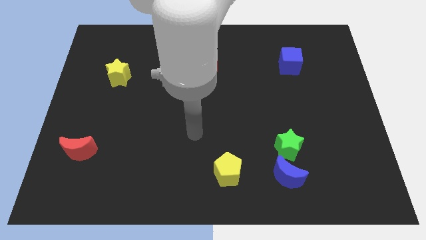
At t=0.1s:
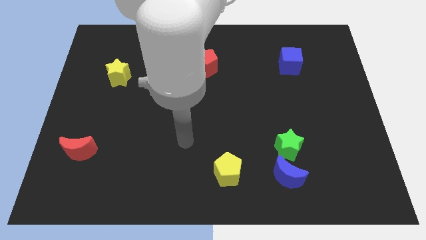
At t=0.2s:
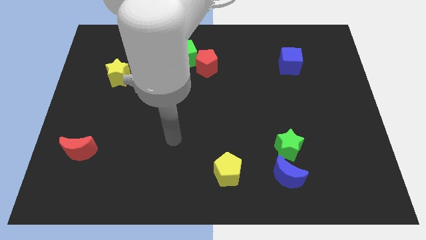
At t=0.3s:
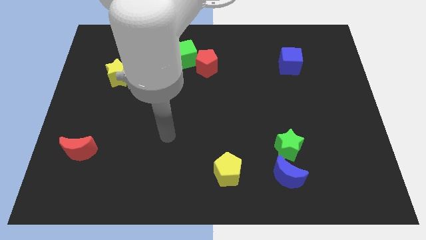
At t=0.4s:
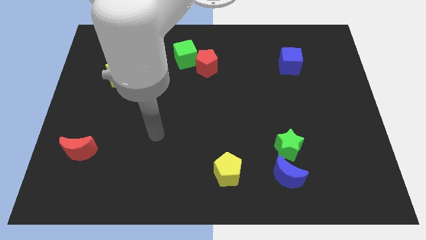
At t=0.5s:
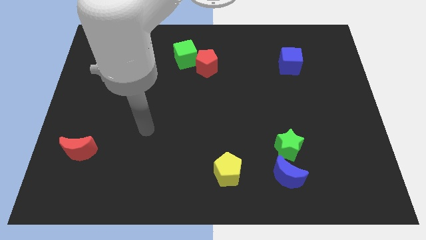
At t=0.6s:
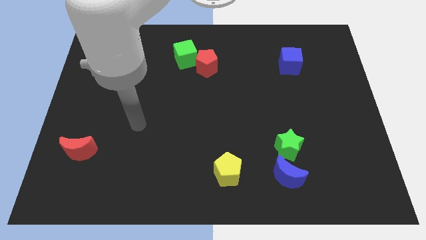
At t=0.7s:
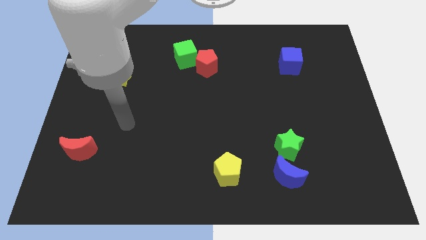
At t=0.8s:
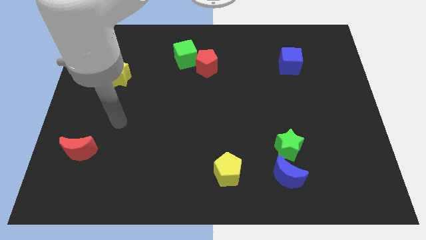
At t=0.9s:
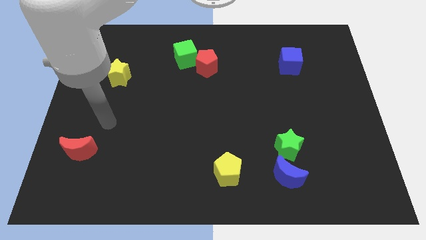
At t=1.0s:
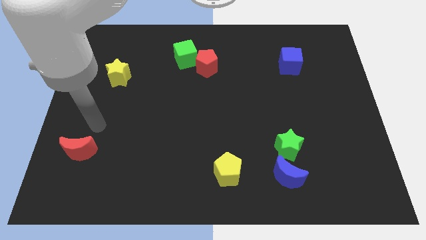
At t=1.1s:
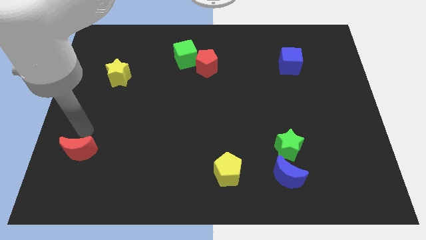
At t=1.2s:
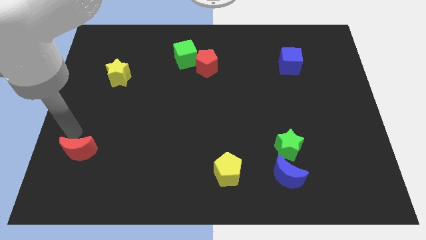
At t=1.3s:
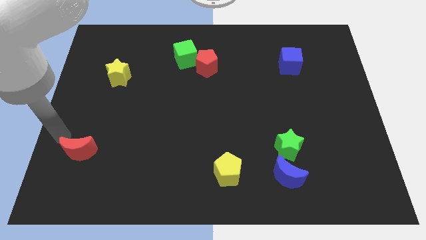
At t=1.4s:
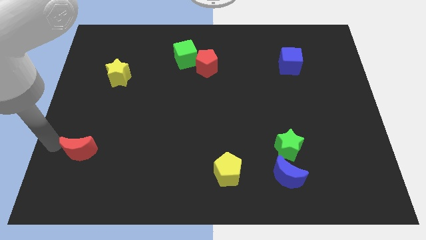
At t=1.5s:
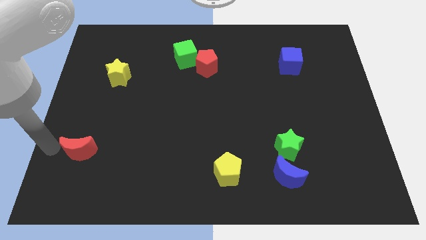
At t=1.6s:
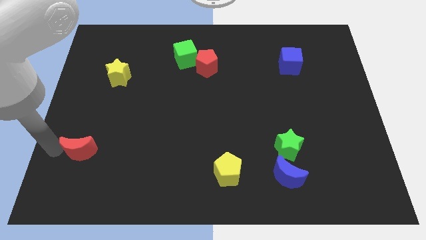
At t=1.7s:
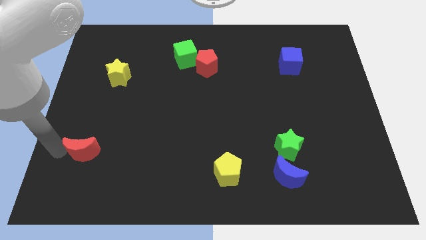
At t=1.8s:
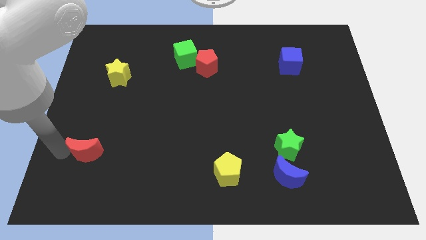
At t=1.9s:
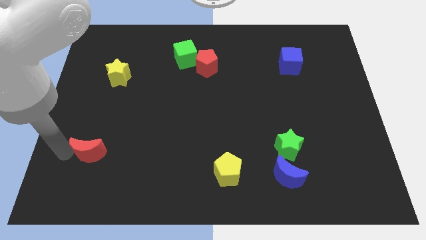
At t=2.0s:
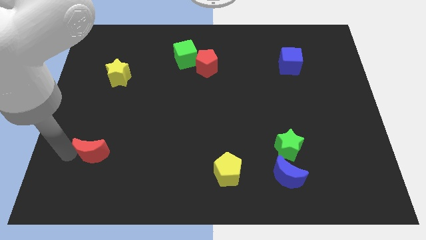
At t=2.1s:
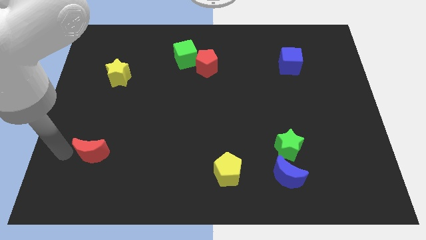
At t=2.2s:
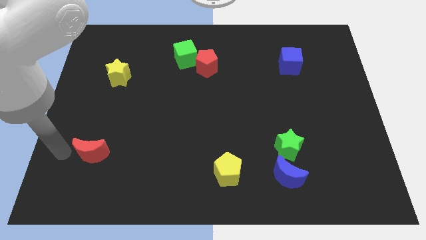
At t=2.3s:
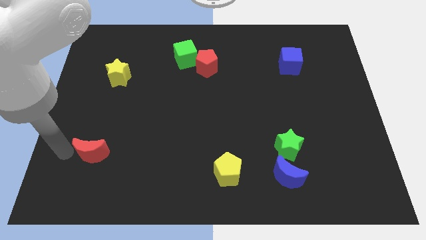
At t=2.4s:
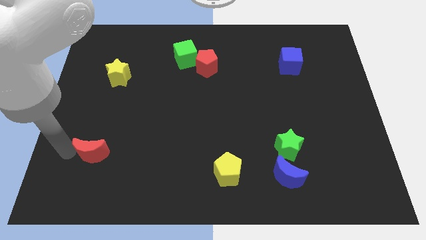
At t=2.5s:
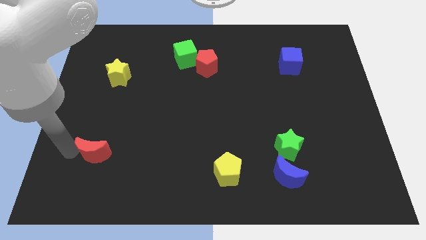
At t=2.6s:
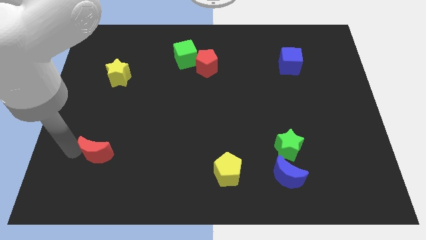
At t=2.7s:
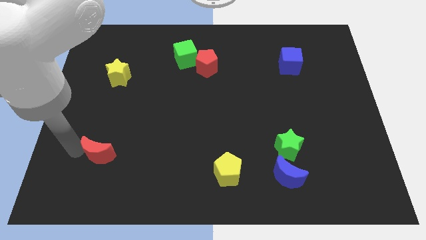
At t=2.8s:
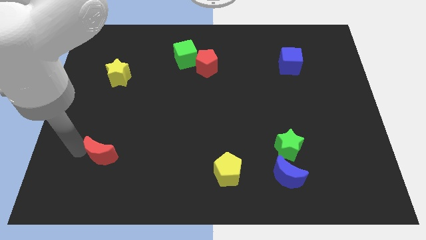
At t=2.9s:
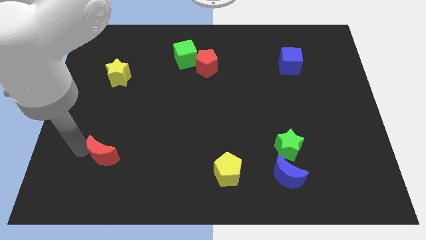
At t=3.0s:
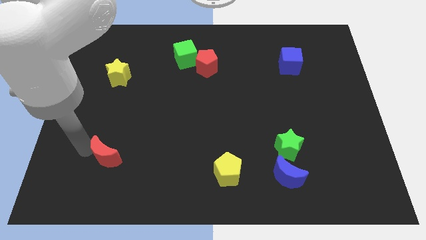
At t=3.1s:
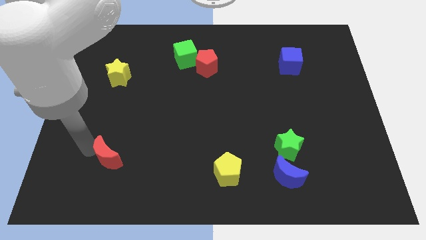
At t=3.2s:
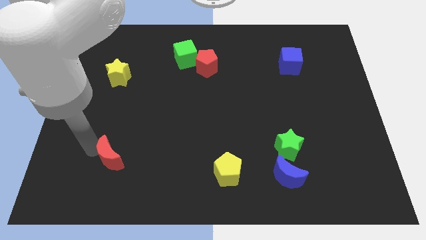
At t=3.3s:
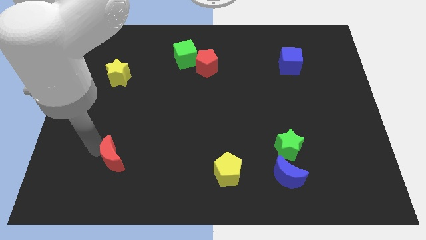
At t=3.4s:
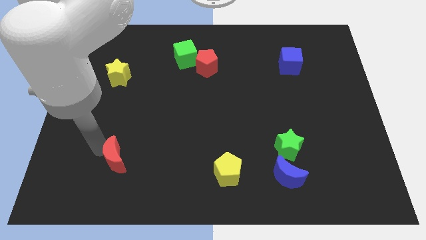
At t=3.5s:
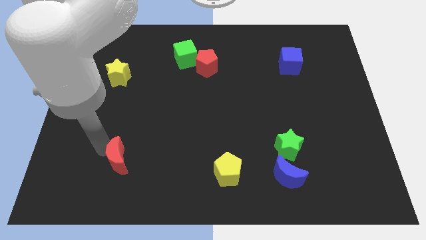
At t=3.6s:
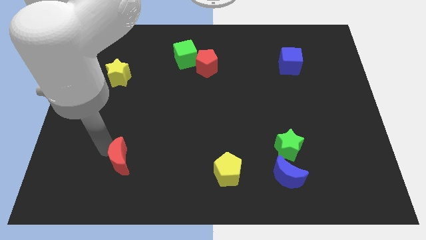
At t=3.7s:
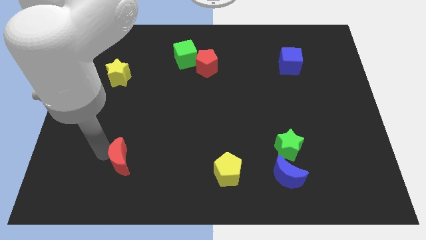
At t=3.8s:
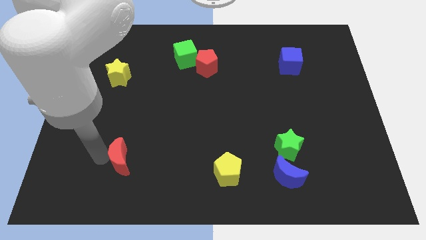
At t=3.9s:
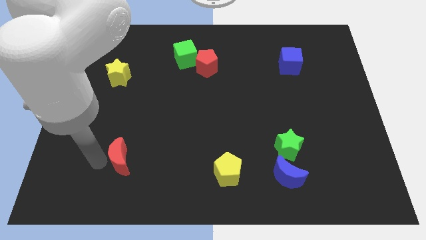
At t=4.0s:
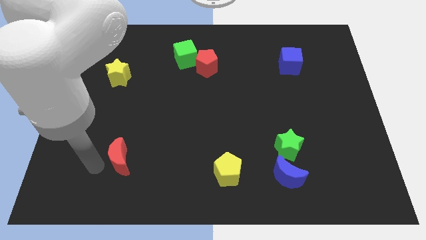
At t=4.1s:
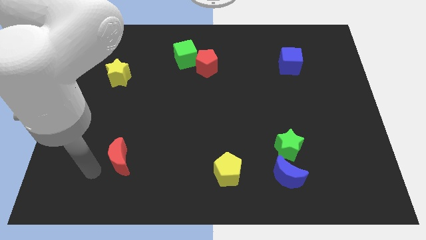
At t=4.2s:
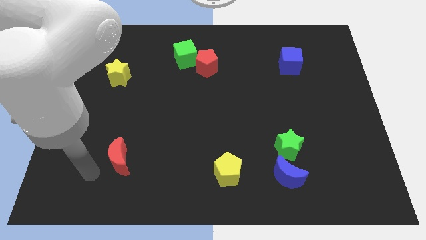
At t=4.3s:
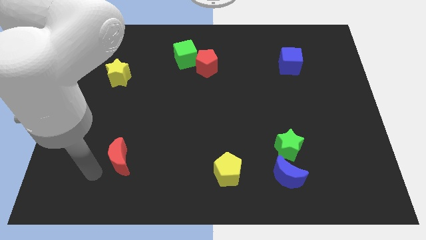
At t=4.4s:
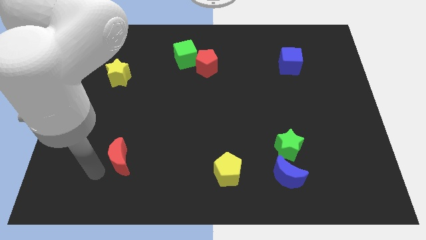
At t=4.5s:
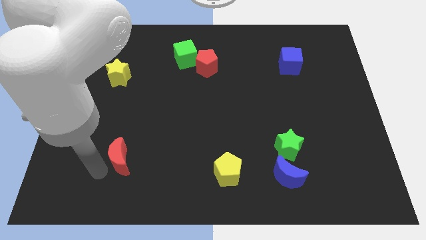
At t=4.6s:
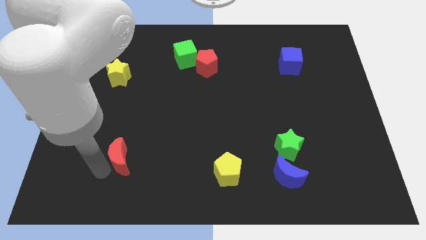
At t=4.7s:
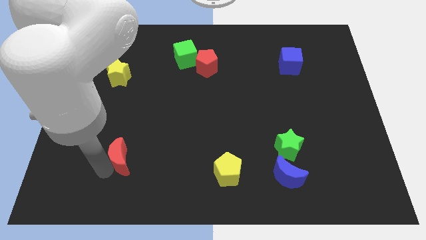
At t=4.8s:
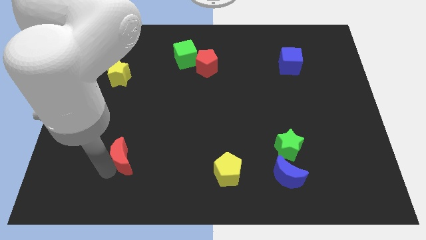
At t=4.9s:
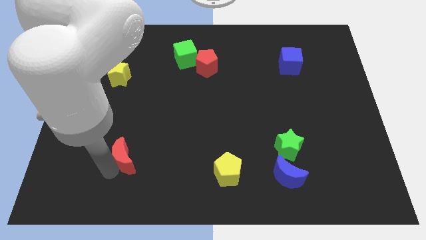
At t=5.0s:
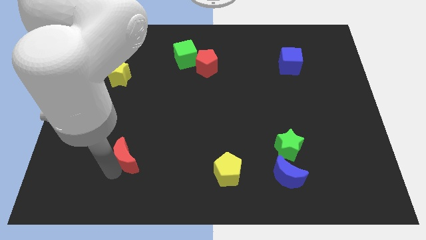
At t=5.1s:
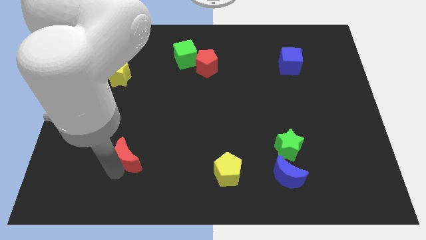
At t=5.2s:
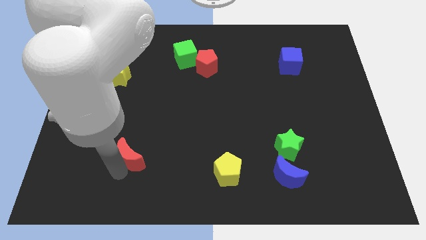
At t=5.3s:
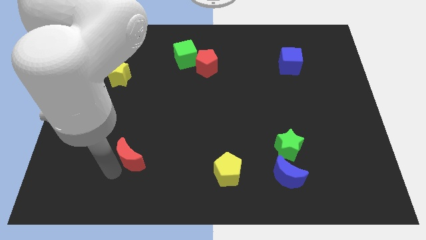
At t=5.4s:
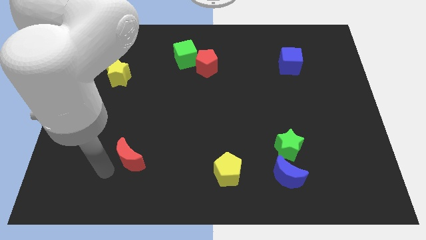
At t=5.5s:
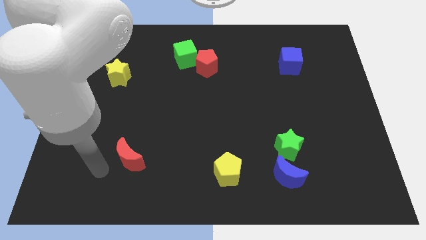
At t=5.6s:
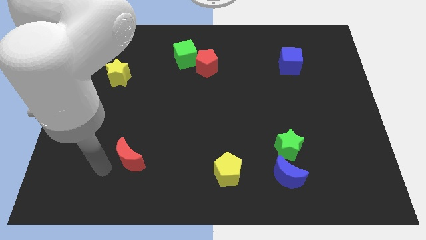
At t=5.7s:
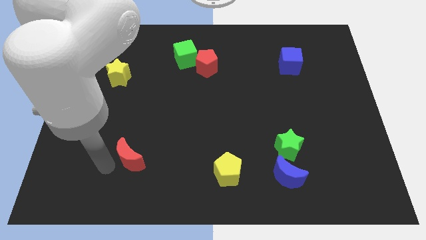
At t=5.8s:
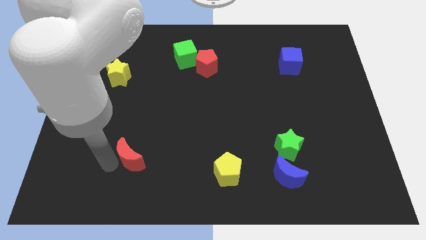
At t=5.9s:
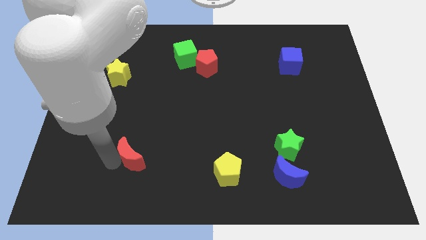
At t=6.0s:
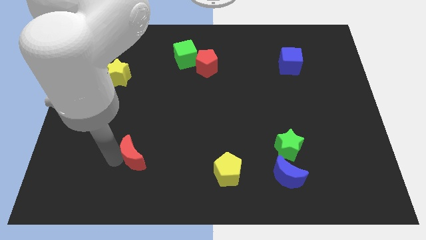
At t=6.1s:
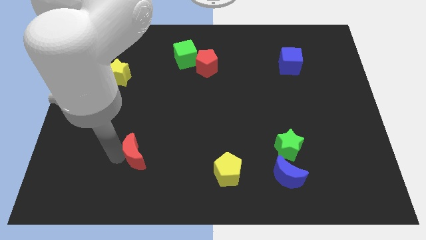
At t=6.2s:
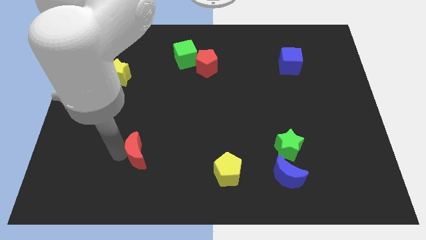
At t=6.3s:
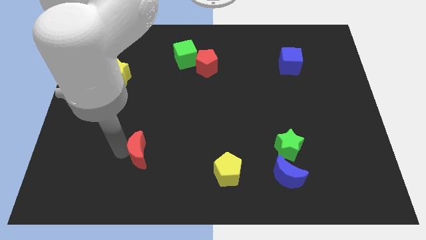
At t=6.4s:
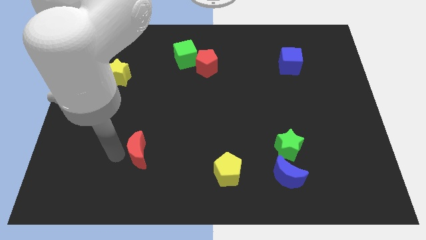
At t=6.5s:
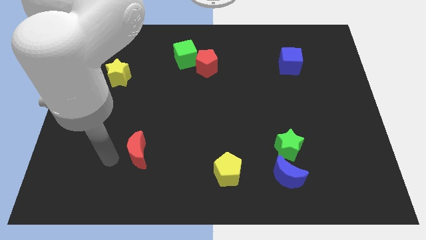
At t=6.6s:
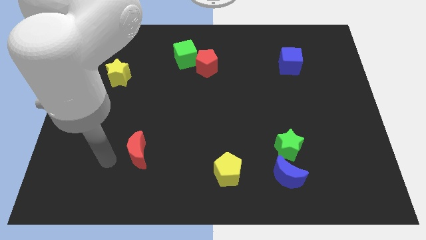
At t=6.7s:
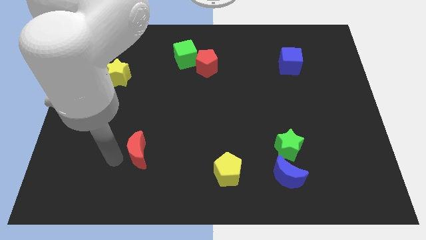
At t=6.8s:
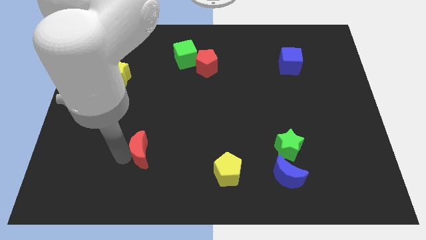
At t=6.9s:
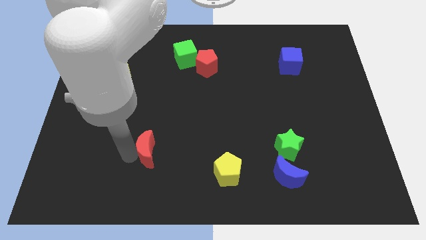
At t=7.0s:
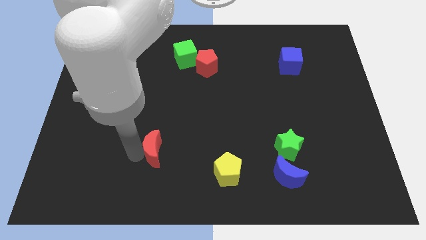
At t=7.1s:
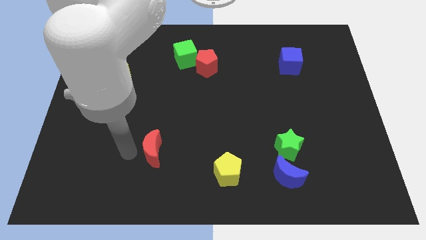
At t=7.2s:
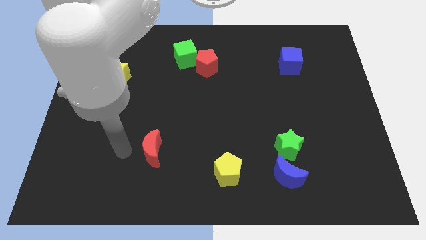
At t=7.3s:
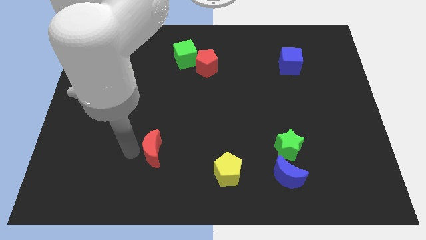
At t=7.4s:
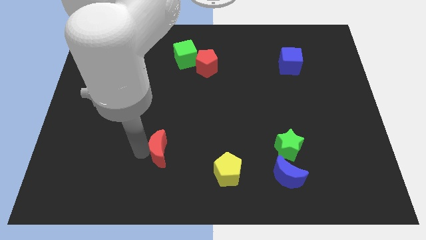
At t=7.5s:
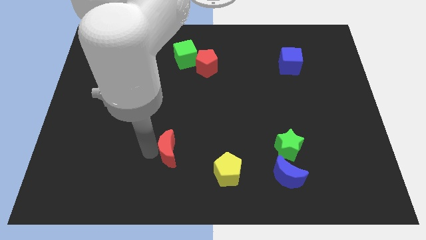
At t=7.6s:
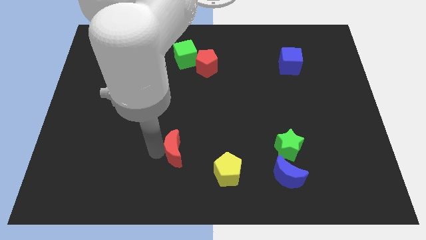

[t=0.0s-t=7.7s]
move the red moon right

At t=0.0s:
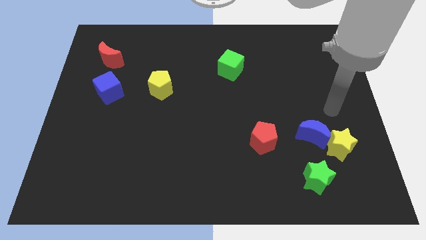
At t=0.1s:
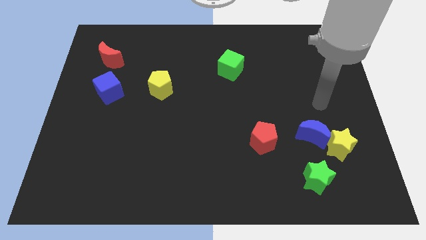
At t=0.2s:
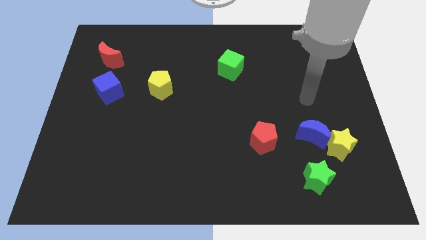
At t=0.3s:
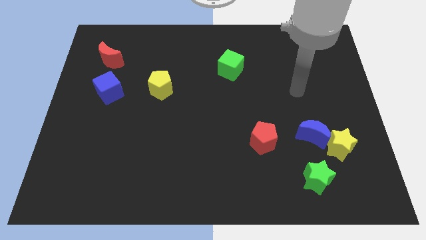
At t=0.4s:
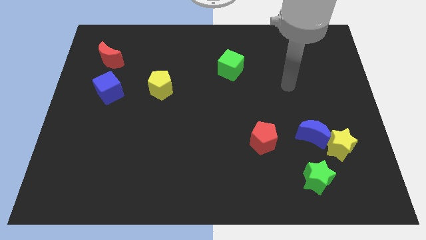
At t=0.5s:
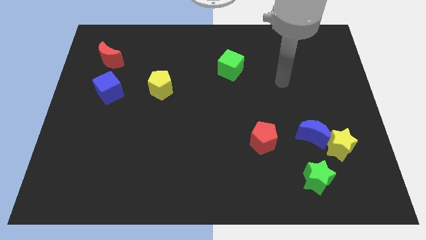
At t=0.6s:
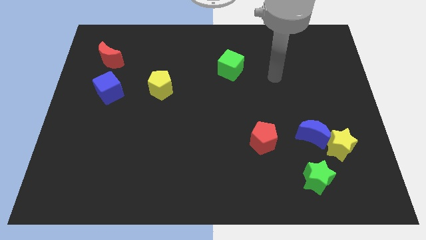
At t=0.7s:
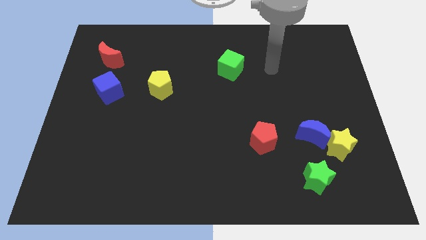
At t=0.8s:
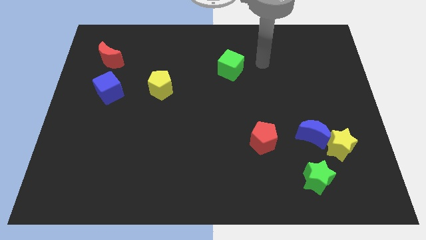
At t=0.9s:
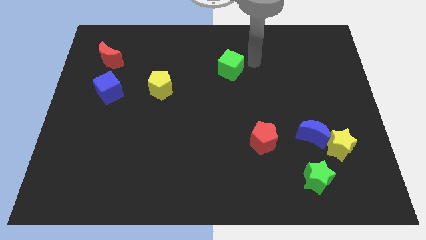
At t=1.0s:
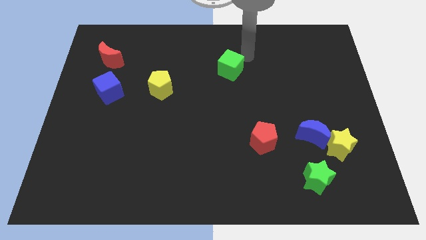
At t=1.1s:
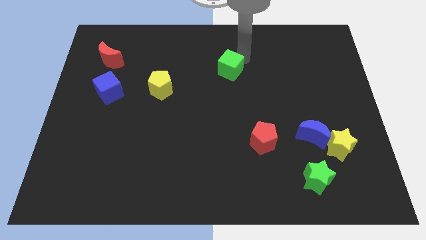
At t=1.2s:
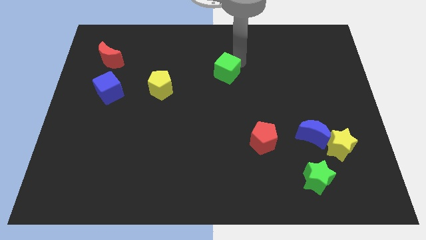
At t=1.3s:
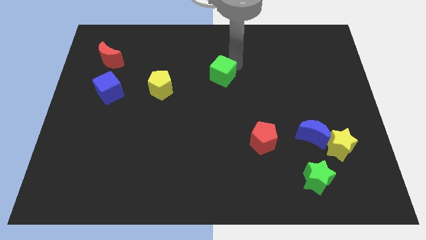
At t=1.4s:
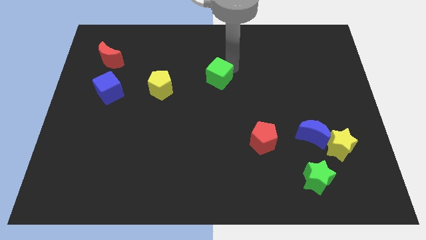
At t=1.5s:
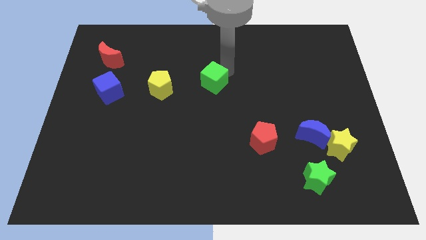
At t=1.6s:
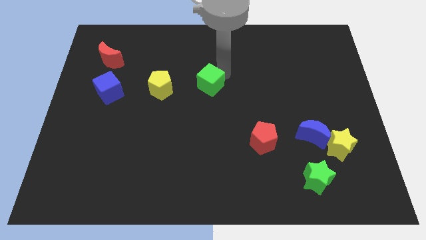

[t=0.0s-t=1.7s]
move the green cube a bit diagonally downwards and to the left
